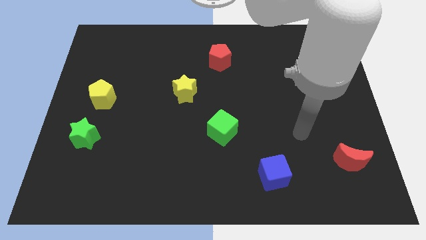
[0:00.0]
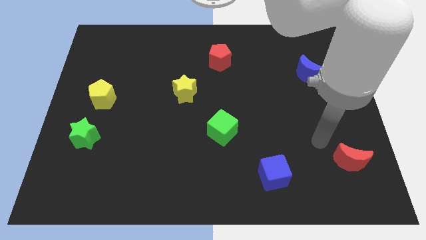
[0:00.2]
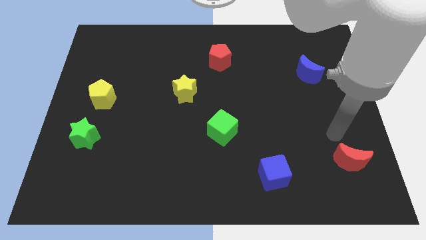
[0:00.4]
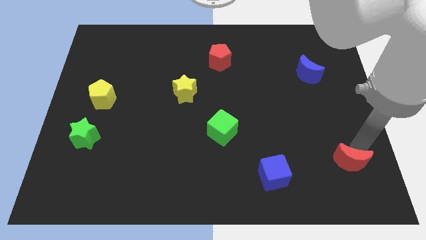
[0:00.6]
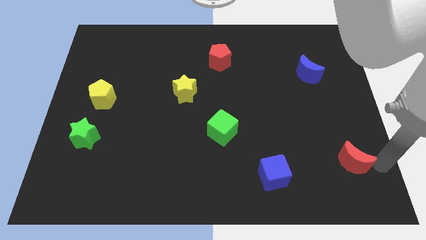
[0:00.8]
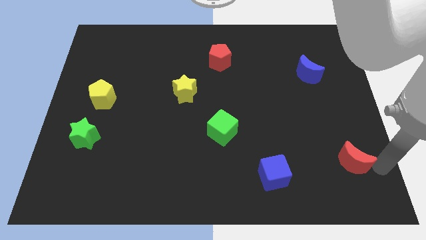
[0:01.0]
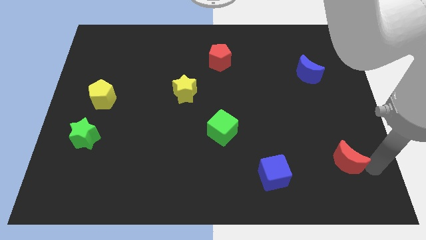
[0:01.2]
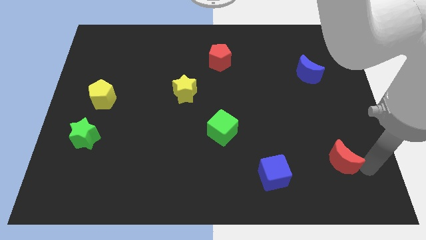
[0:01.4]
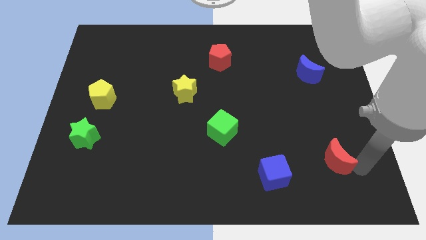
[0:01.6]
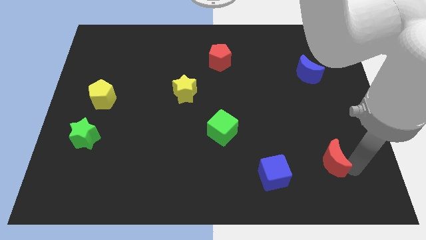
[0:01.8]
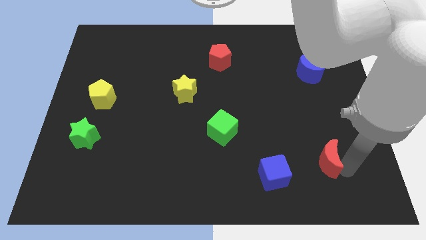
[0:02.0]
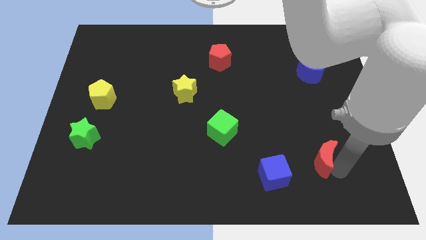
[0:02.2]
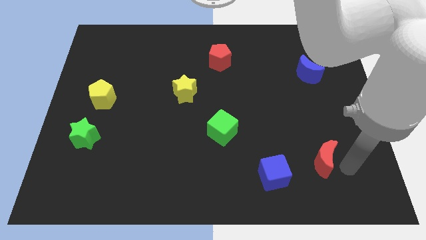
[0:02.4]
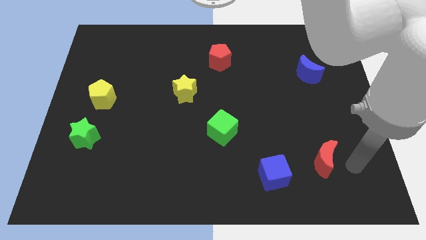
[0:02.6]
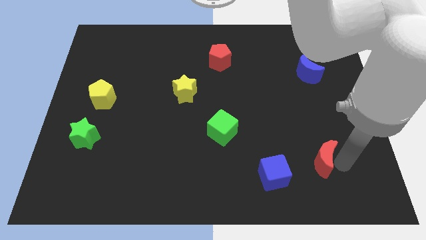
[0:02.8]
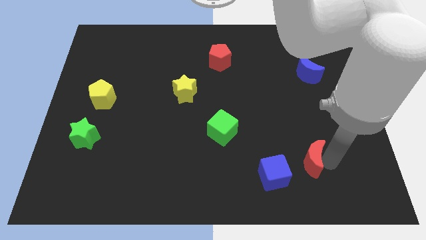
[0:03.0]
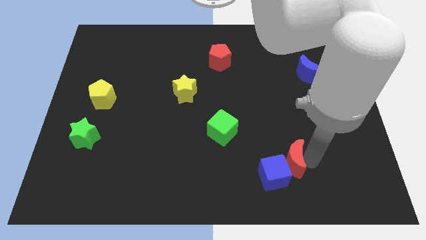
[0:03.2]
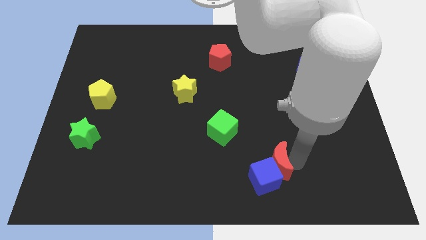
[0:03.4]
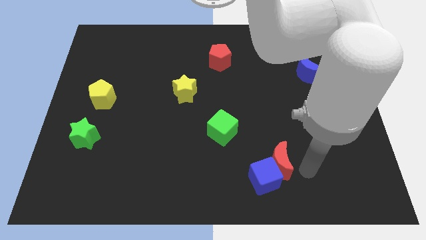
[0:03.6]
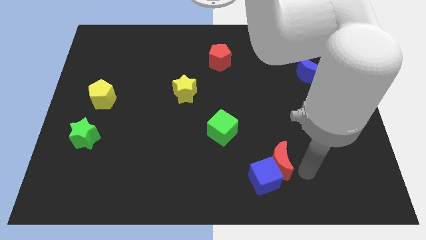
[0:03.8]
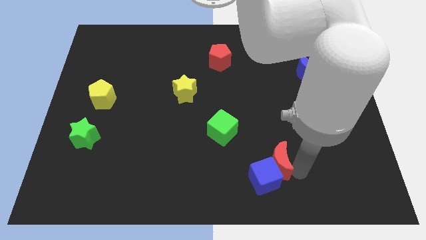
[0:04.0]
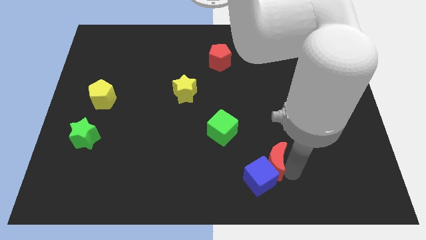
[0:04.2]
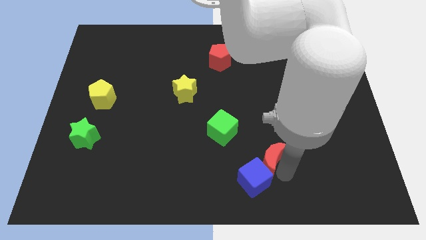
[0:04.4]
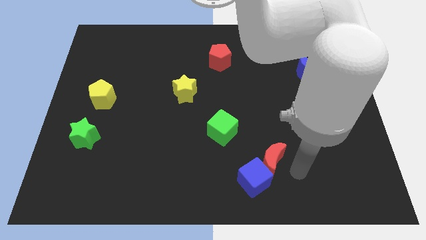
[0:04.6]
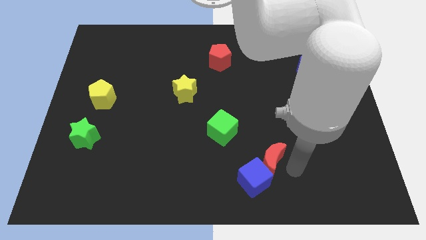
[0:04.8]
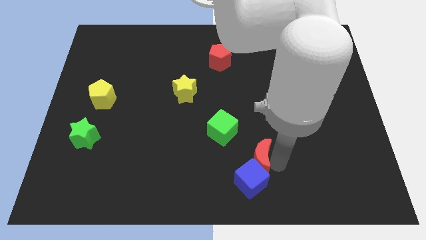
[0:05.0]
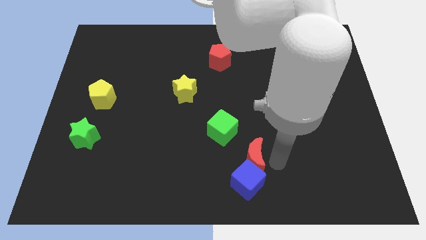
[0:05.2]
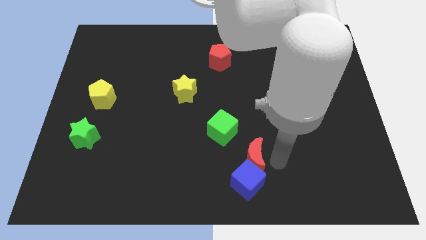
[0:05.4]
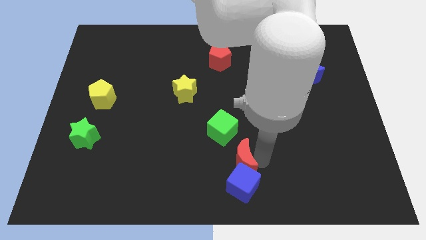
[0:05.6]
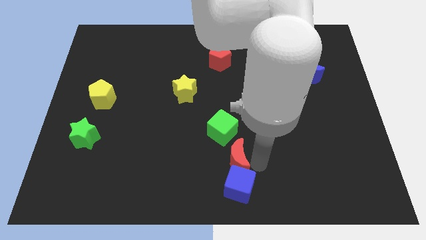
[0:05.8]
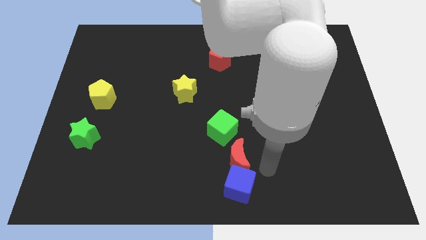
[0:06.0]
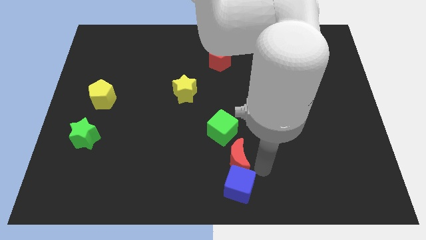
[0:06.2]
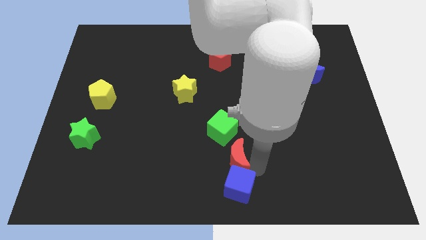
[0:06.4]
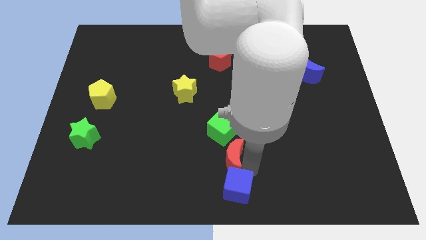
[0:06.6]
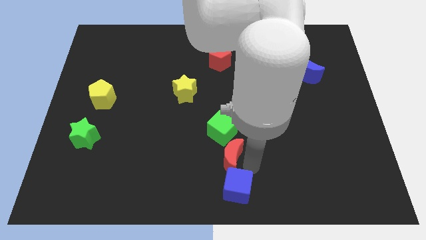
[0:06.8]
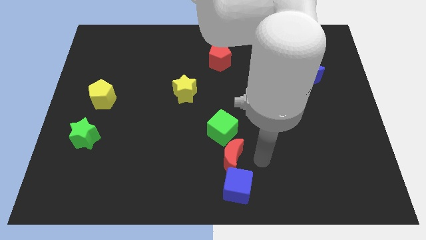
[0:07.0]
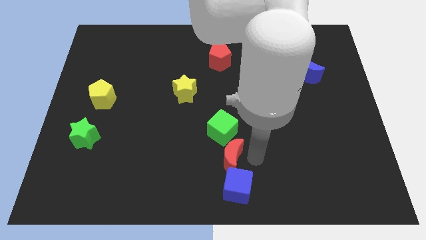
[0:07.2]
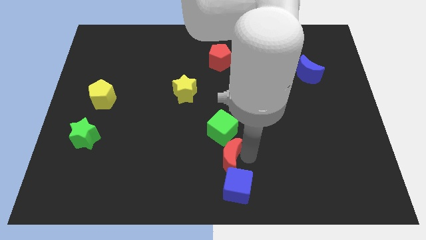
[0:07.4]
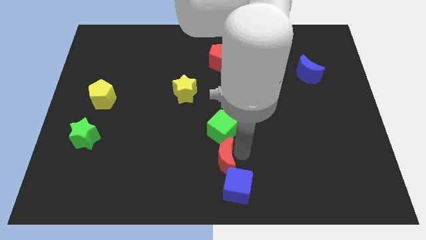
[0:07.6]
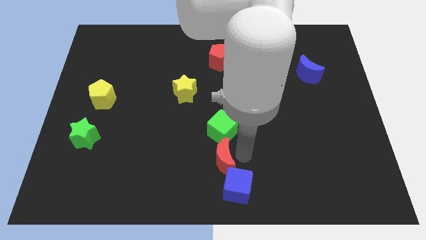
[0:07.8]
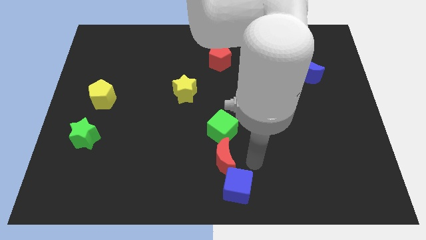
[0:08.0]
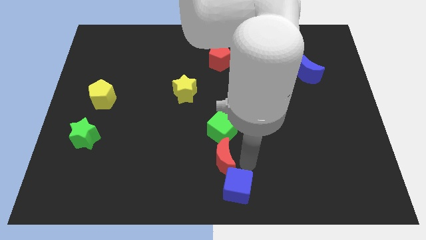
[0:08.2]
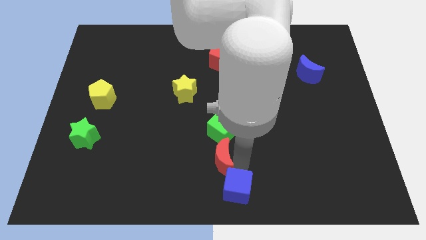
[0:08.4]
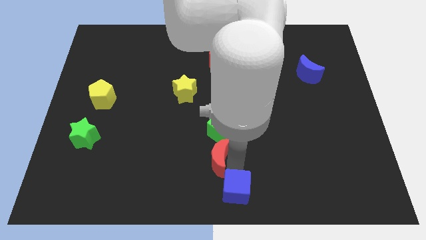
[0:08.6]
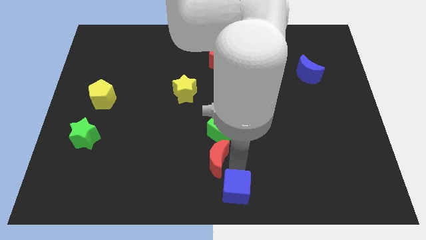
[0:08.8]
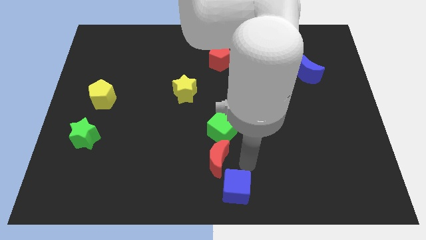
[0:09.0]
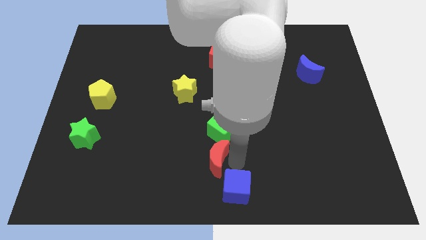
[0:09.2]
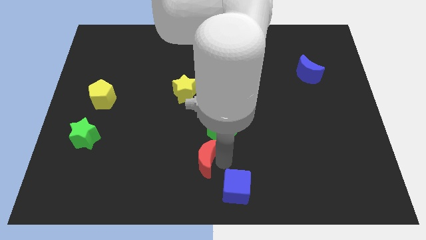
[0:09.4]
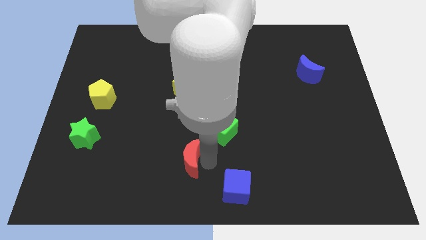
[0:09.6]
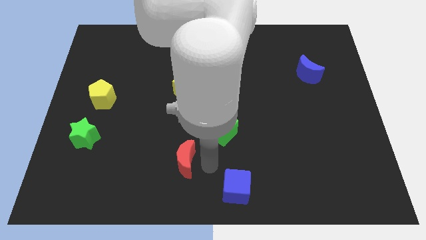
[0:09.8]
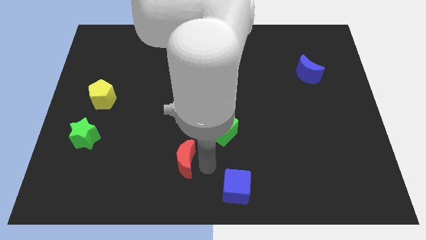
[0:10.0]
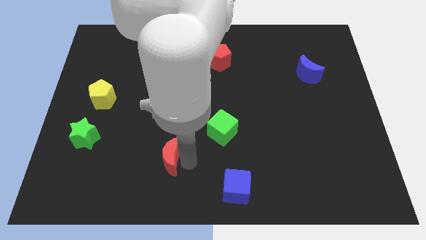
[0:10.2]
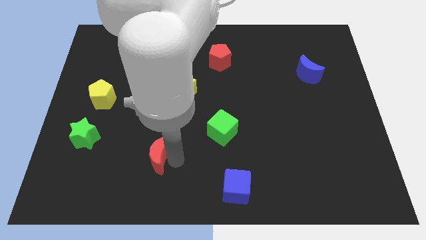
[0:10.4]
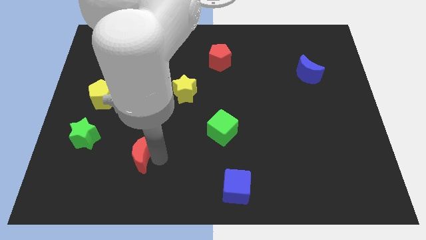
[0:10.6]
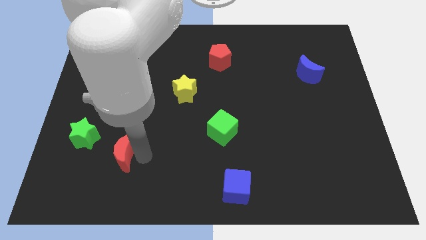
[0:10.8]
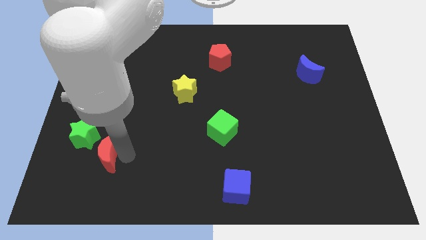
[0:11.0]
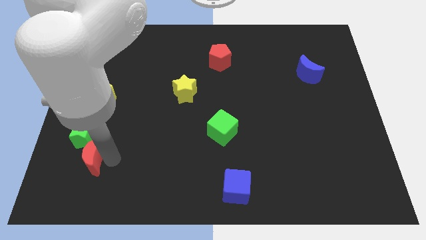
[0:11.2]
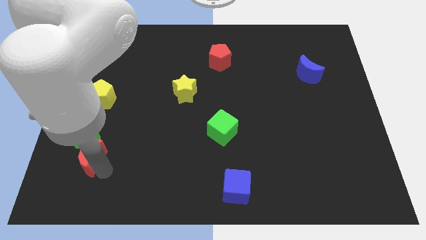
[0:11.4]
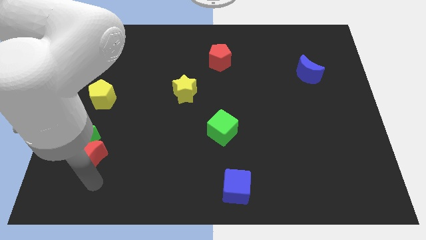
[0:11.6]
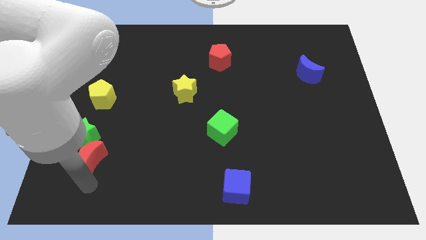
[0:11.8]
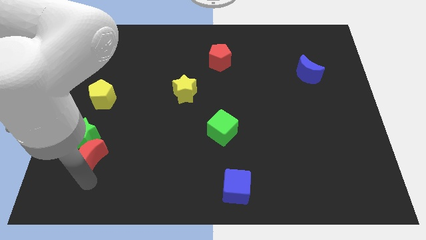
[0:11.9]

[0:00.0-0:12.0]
push the red moon to the bottom of the yellow pentagon
